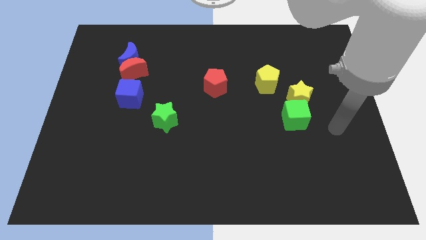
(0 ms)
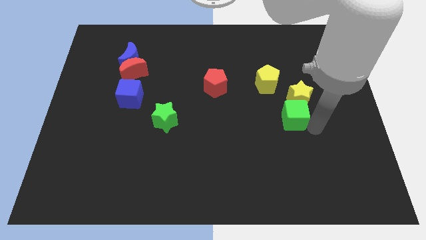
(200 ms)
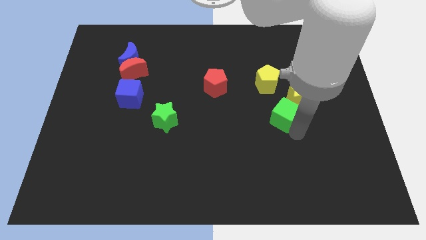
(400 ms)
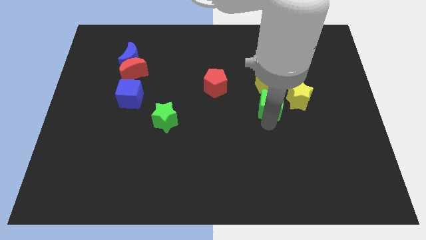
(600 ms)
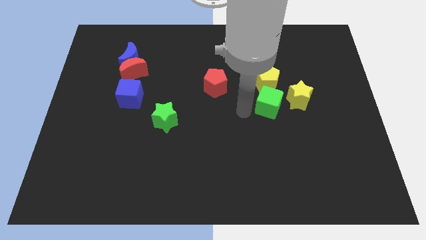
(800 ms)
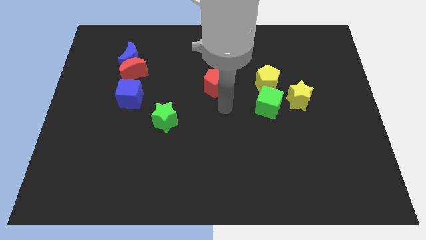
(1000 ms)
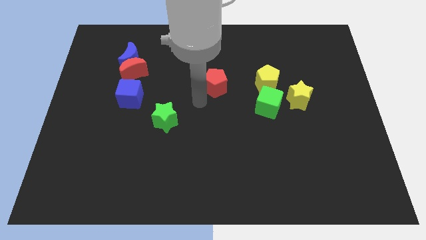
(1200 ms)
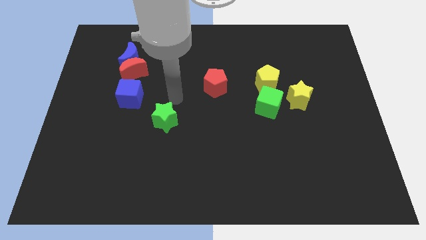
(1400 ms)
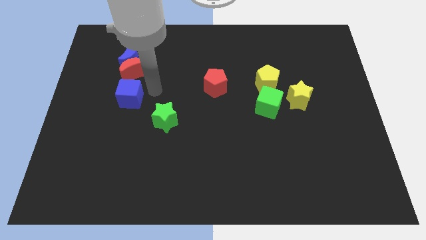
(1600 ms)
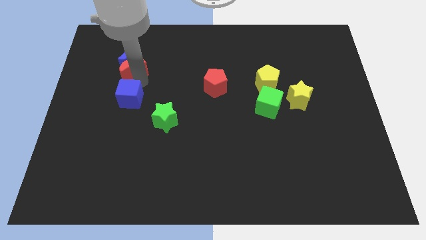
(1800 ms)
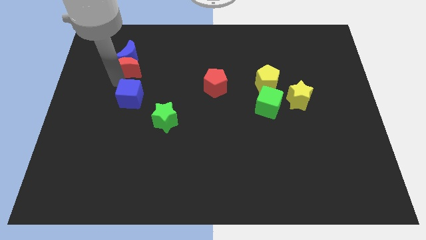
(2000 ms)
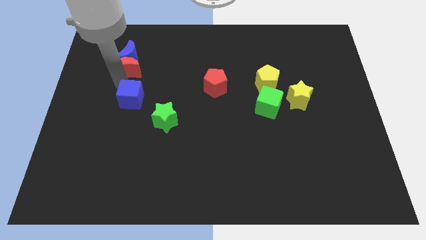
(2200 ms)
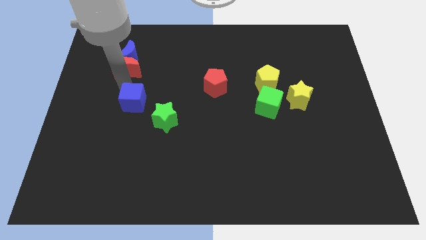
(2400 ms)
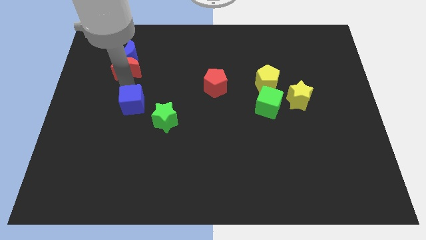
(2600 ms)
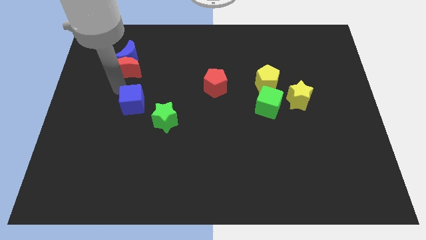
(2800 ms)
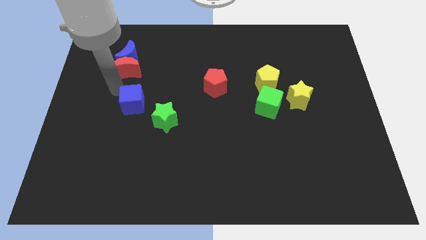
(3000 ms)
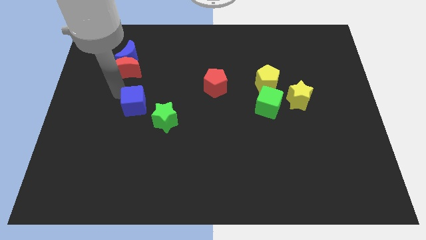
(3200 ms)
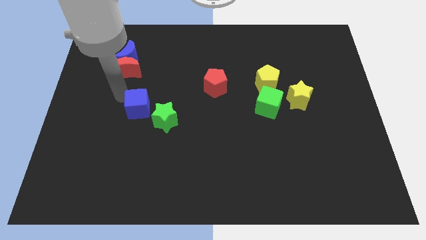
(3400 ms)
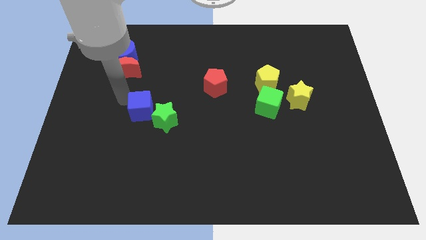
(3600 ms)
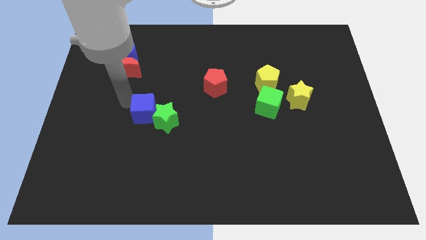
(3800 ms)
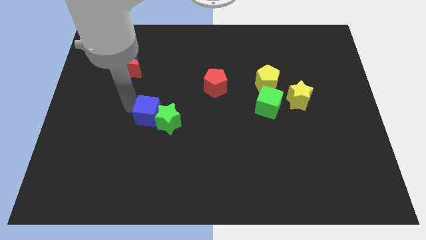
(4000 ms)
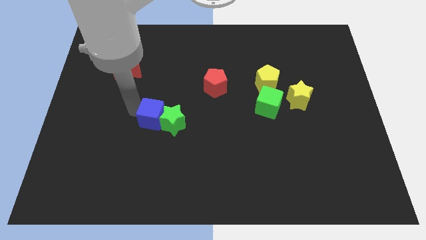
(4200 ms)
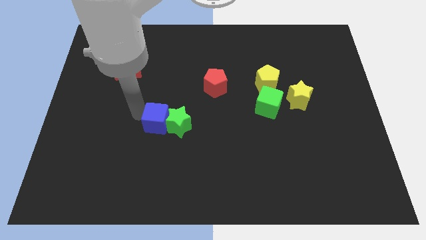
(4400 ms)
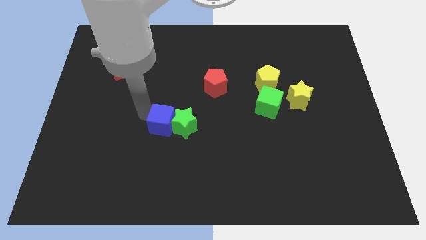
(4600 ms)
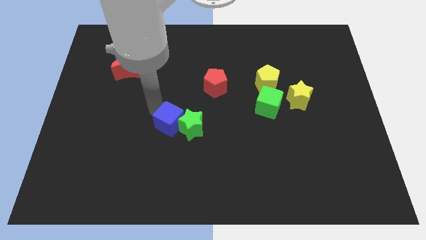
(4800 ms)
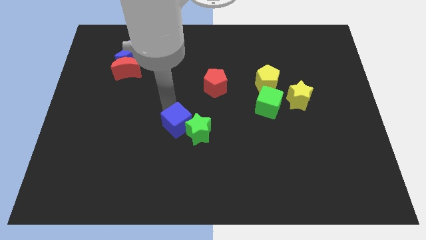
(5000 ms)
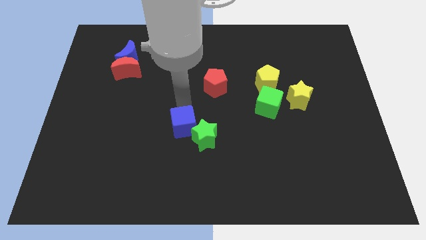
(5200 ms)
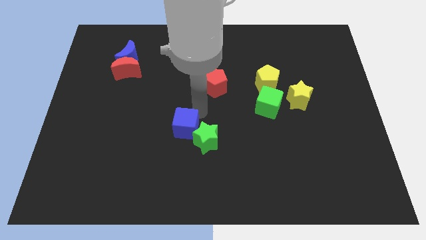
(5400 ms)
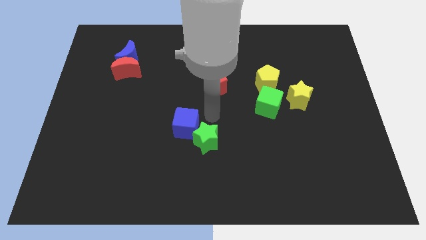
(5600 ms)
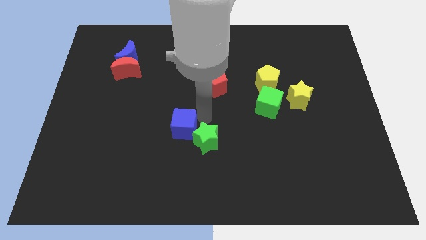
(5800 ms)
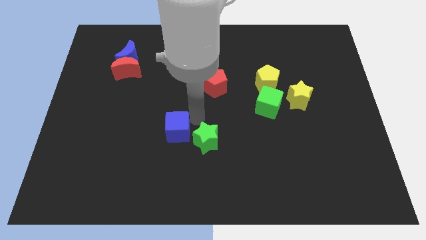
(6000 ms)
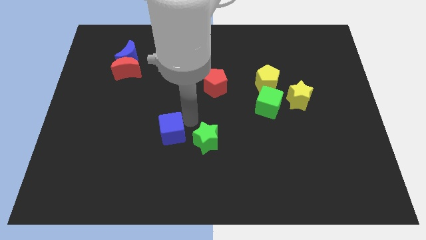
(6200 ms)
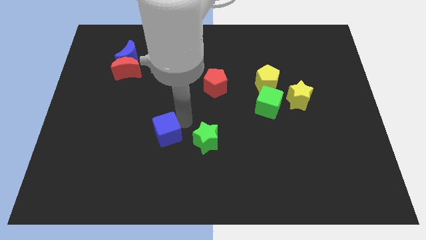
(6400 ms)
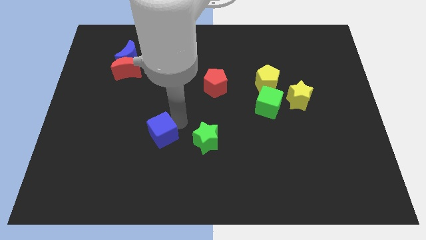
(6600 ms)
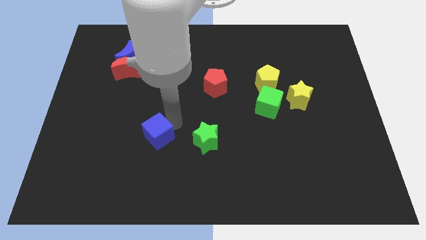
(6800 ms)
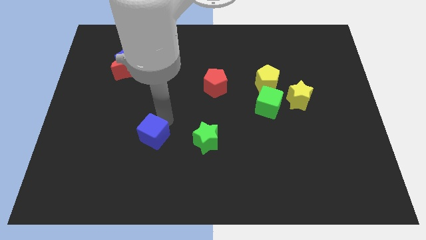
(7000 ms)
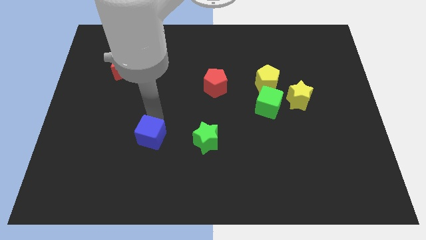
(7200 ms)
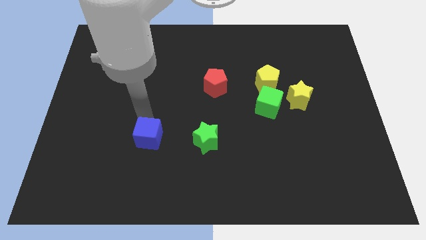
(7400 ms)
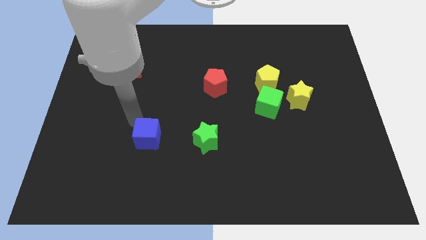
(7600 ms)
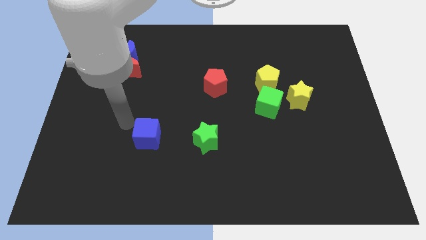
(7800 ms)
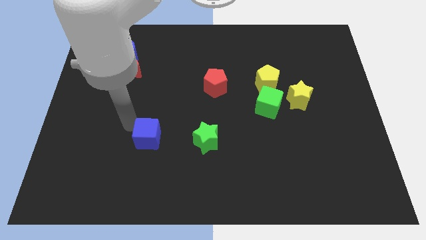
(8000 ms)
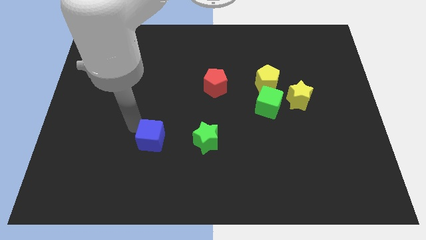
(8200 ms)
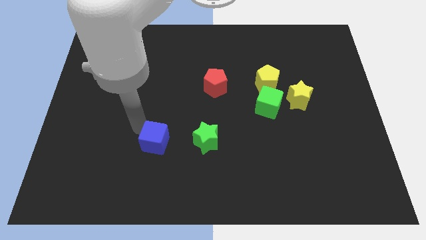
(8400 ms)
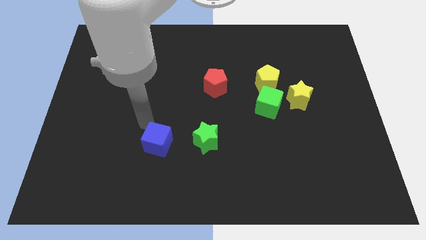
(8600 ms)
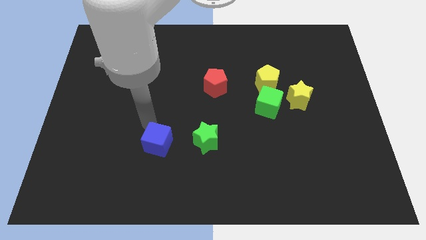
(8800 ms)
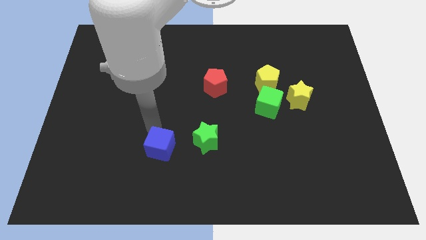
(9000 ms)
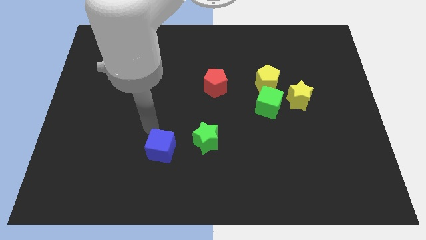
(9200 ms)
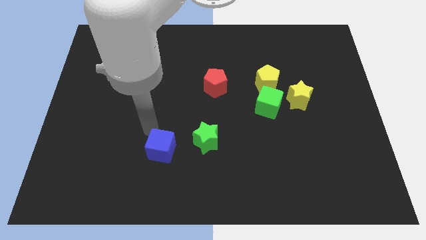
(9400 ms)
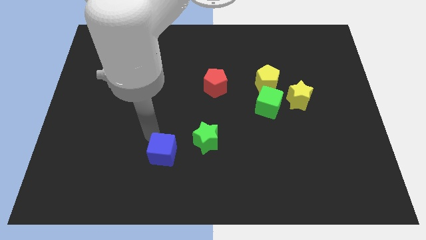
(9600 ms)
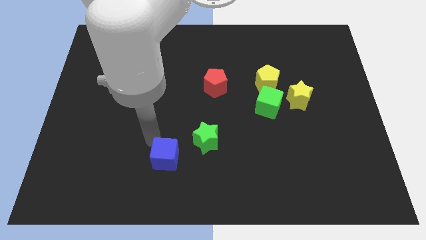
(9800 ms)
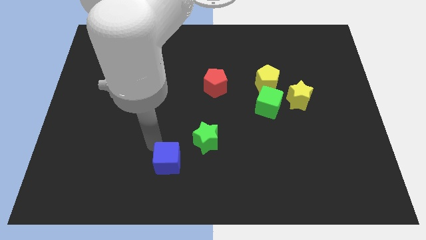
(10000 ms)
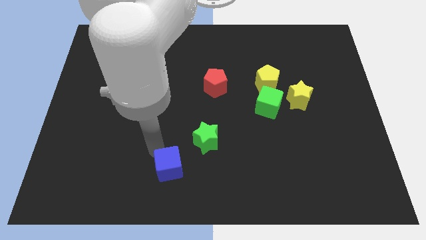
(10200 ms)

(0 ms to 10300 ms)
push the blue cube to the bottom

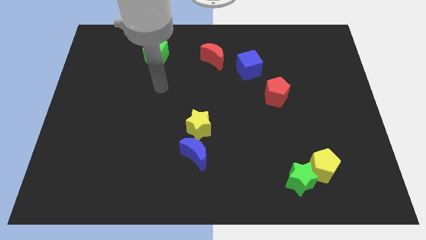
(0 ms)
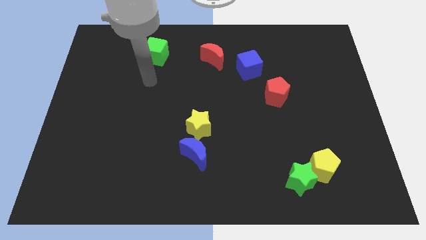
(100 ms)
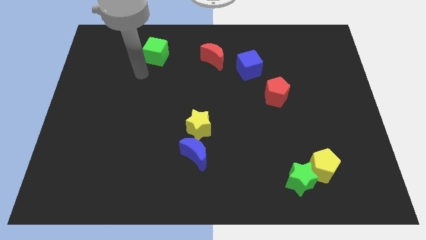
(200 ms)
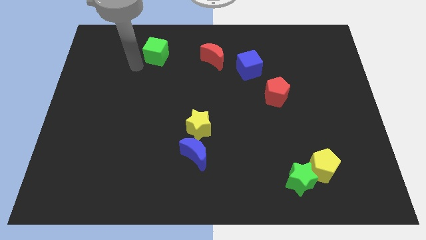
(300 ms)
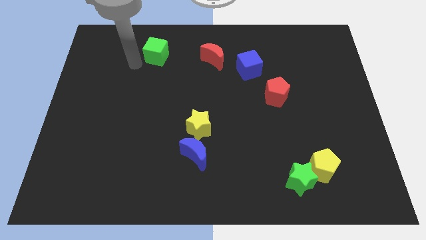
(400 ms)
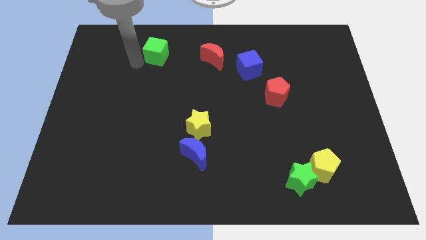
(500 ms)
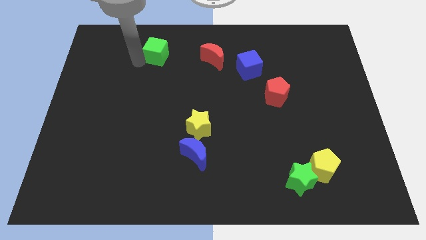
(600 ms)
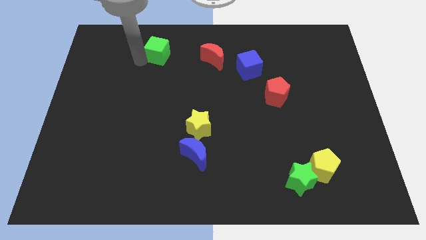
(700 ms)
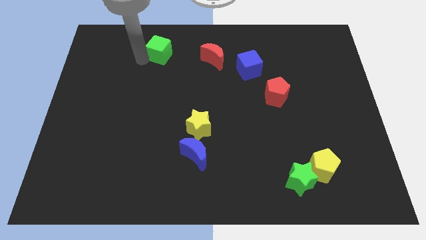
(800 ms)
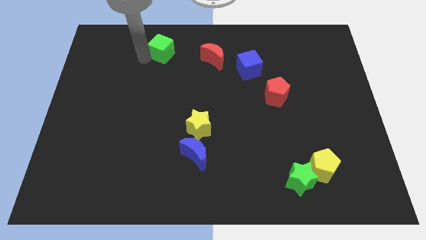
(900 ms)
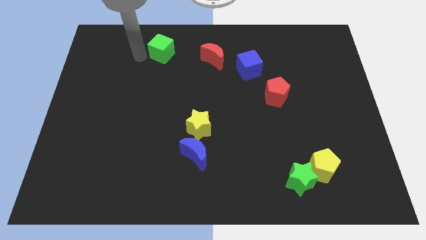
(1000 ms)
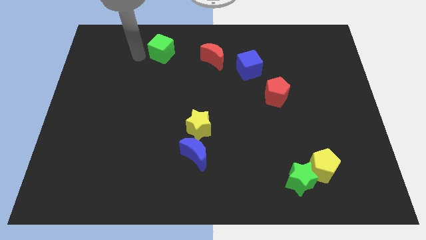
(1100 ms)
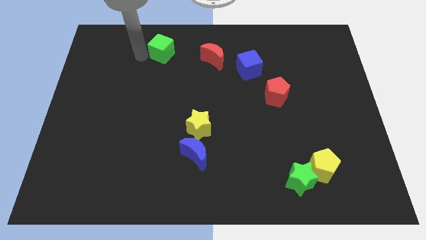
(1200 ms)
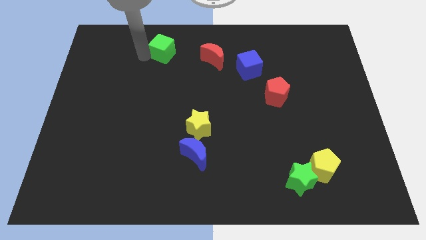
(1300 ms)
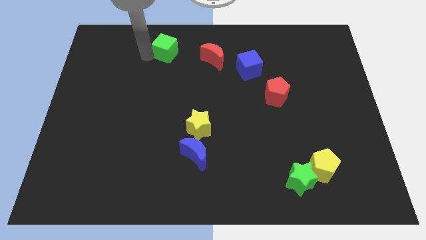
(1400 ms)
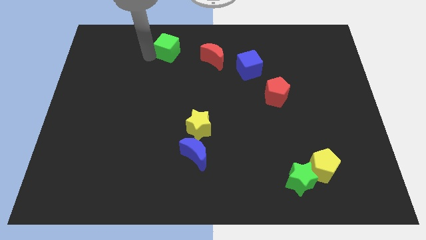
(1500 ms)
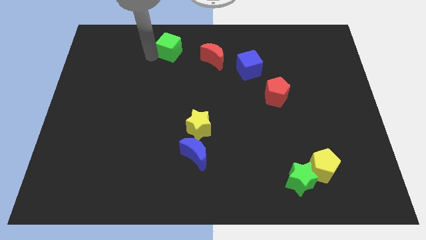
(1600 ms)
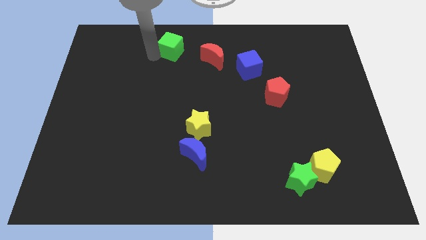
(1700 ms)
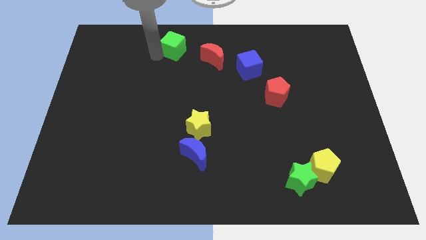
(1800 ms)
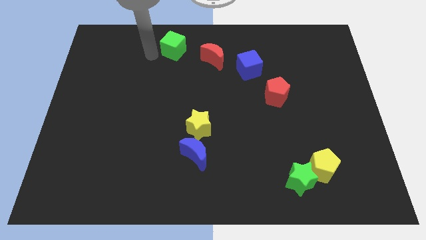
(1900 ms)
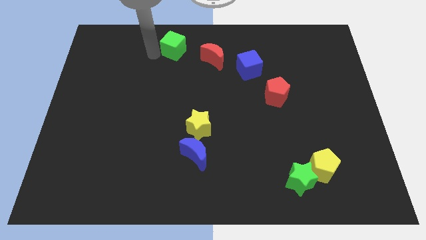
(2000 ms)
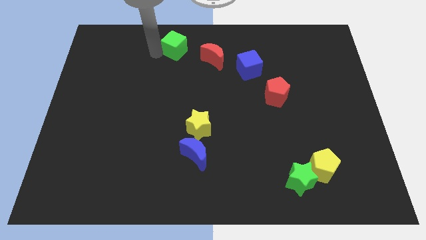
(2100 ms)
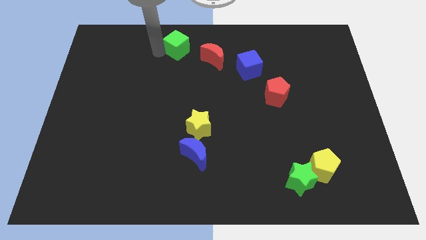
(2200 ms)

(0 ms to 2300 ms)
move the green cube to the towards your base
